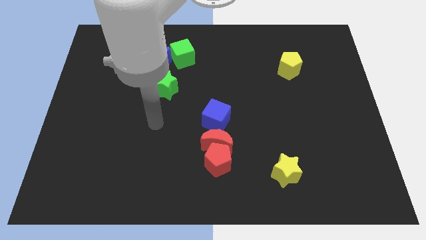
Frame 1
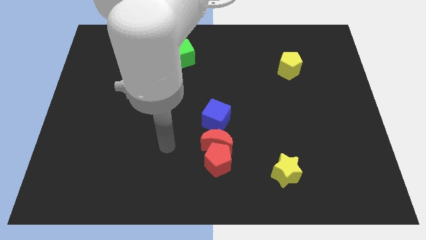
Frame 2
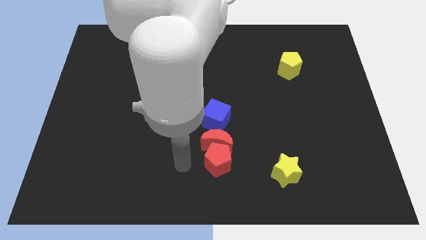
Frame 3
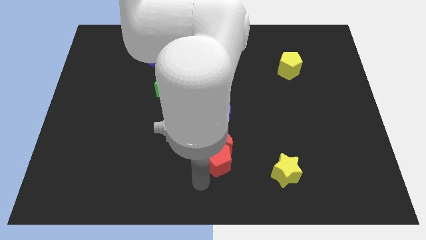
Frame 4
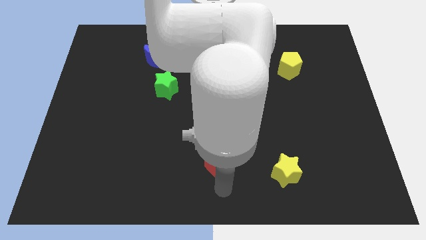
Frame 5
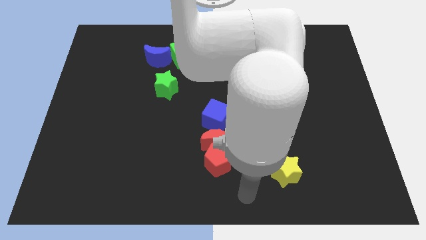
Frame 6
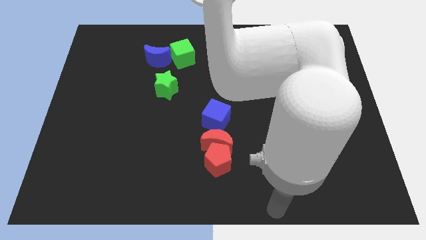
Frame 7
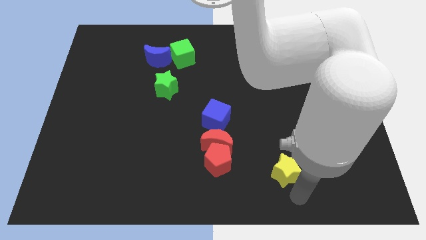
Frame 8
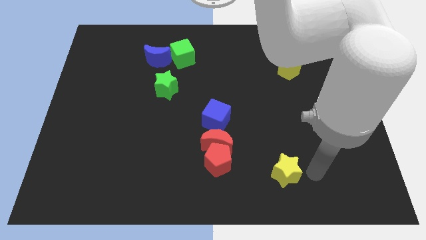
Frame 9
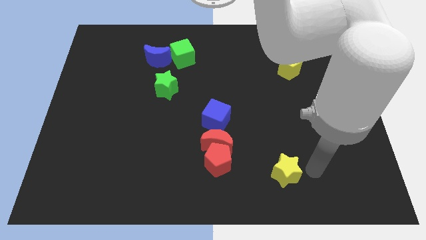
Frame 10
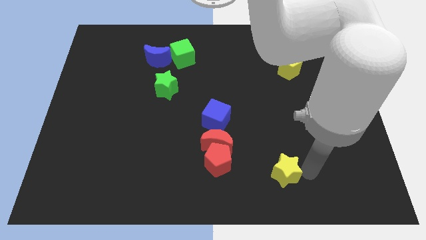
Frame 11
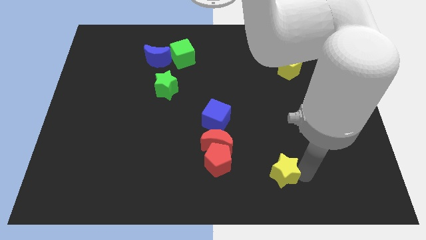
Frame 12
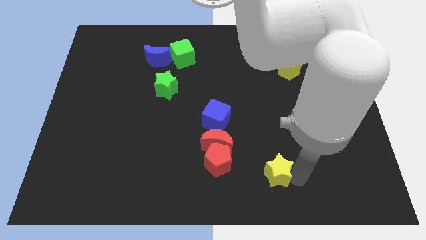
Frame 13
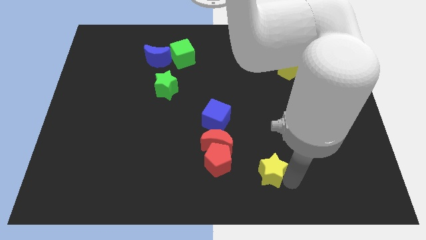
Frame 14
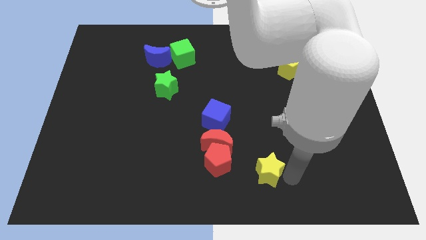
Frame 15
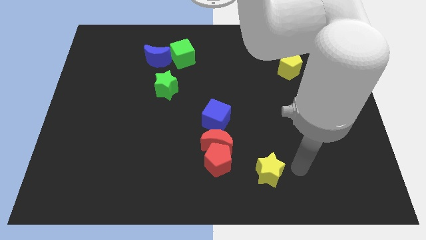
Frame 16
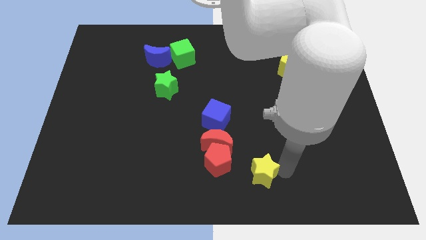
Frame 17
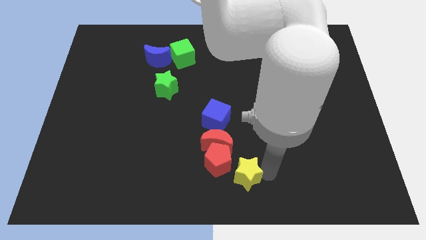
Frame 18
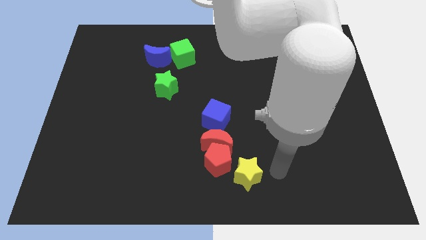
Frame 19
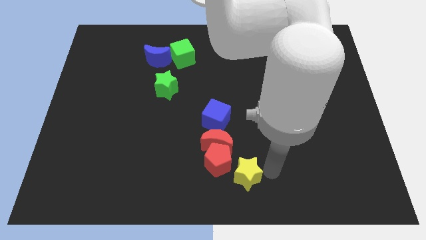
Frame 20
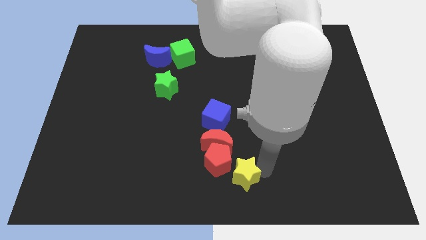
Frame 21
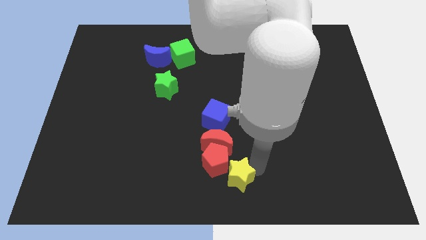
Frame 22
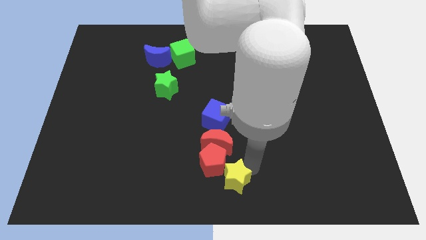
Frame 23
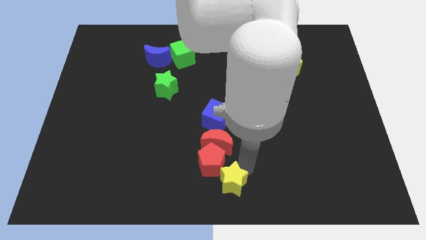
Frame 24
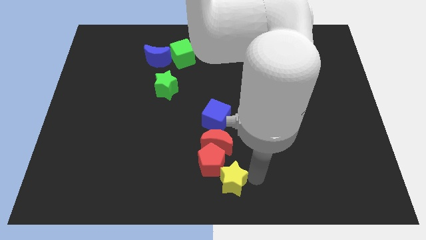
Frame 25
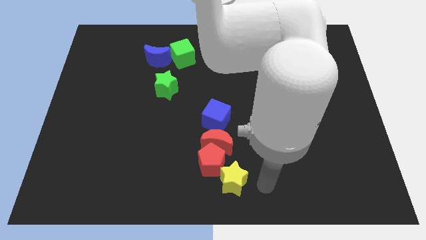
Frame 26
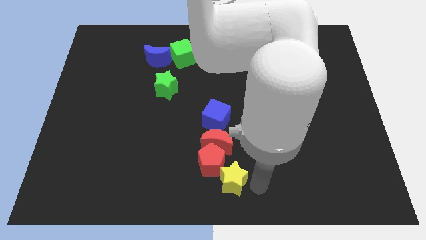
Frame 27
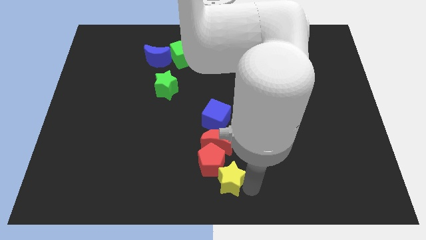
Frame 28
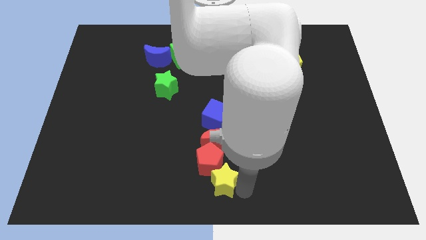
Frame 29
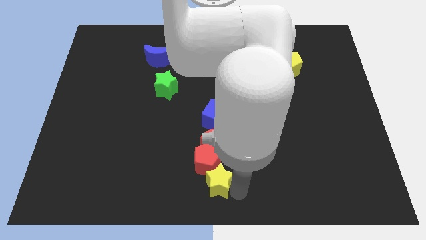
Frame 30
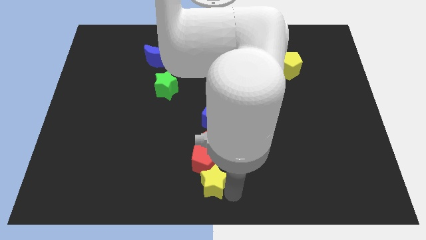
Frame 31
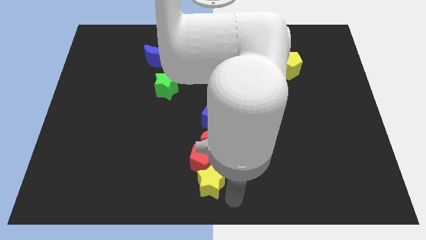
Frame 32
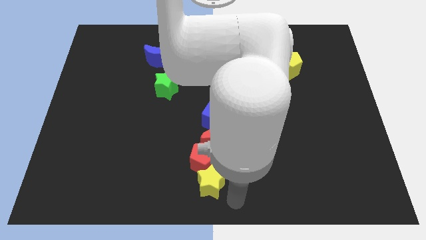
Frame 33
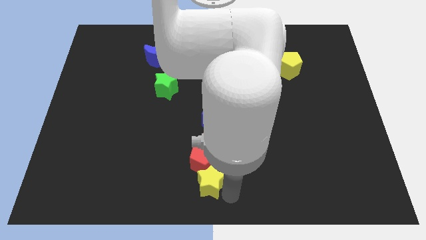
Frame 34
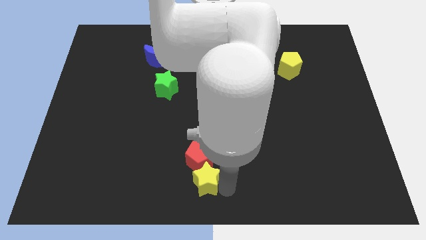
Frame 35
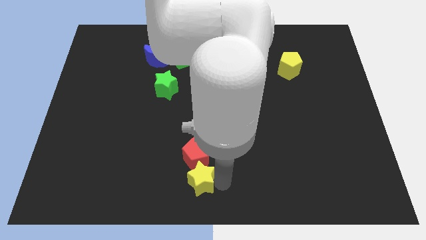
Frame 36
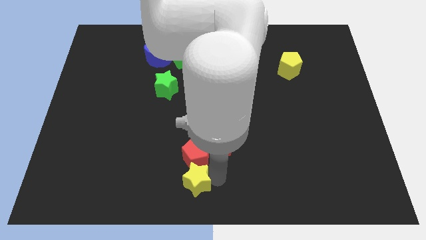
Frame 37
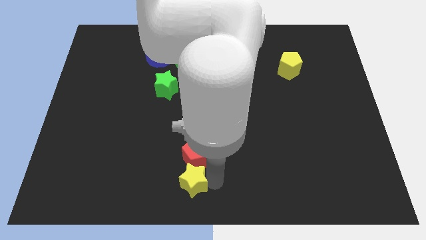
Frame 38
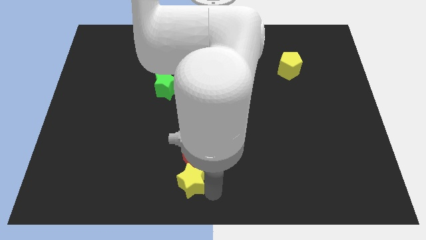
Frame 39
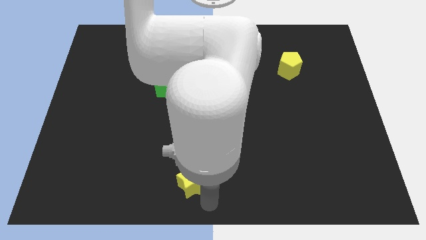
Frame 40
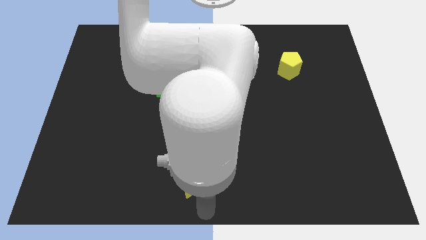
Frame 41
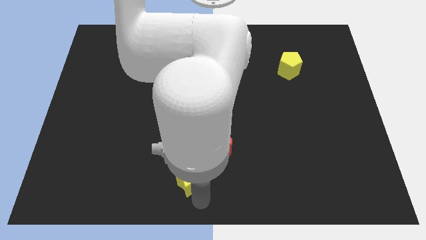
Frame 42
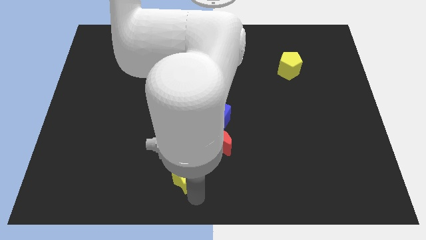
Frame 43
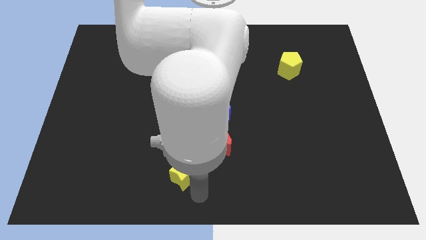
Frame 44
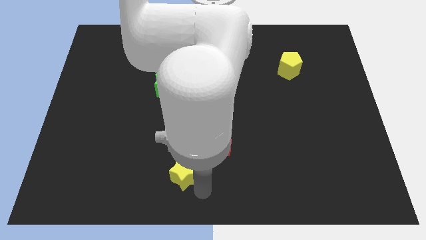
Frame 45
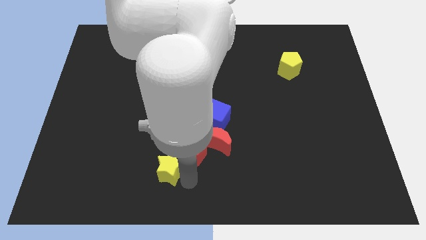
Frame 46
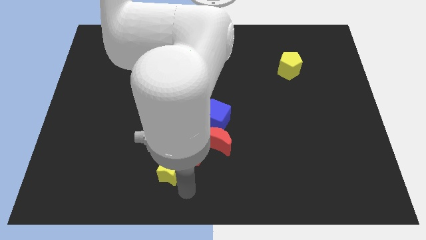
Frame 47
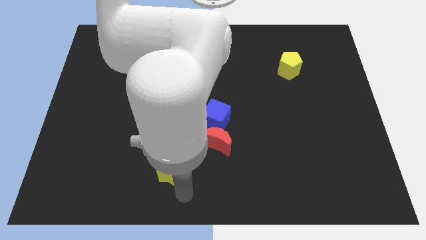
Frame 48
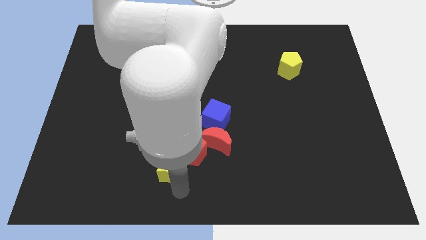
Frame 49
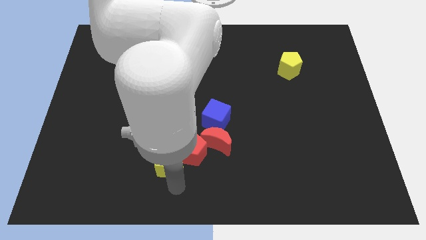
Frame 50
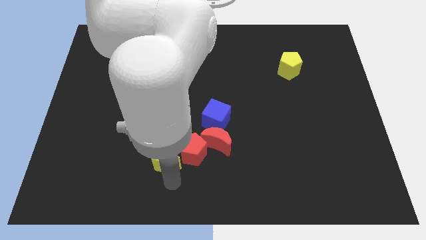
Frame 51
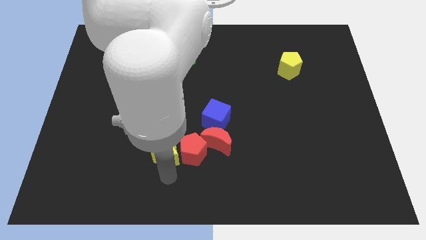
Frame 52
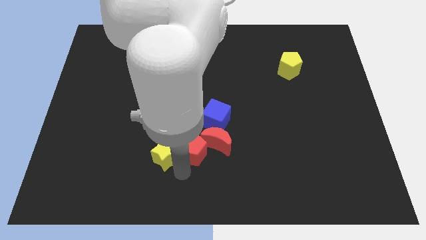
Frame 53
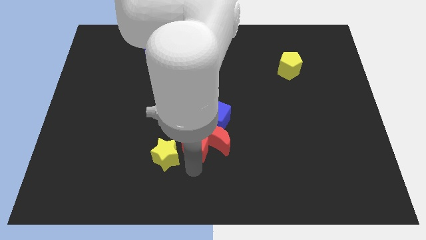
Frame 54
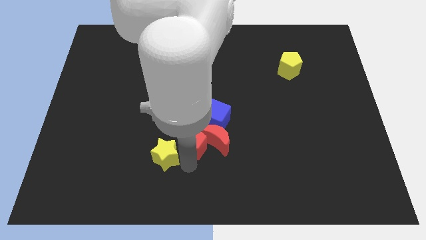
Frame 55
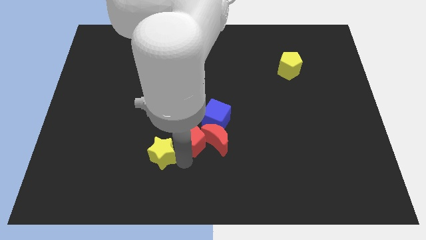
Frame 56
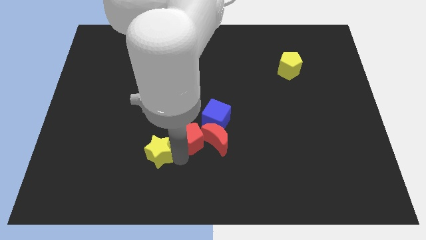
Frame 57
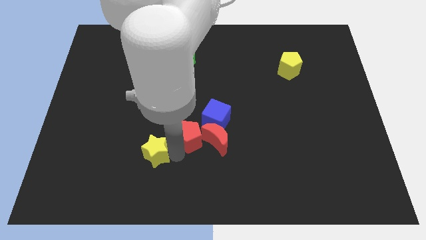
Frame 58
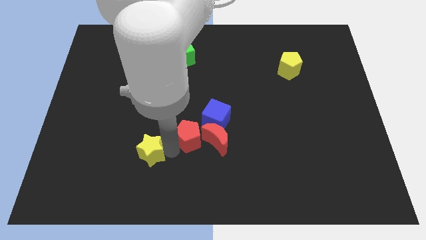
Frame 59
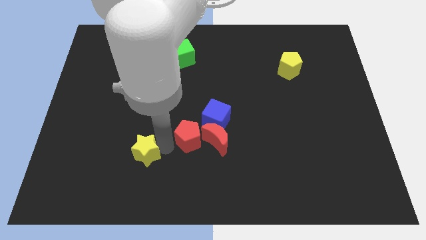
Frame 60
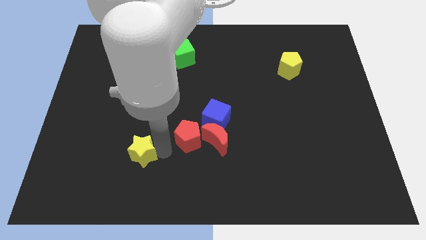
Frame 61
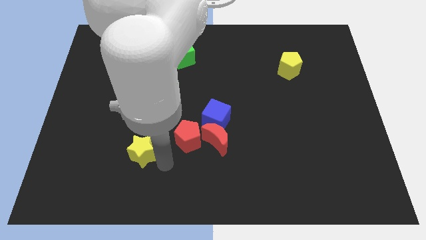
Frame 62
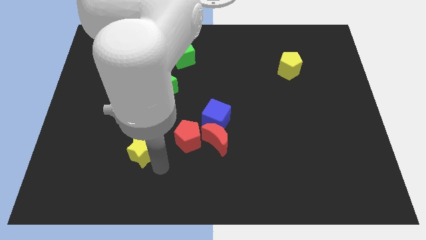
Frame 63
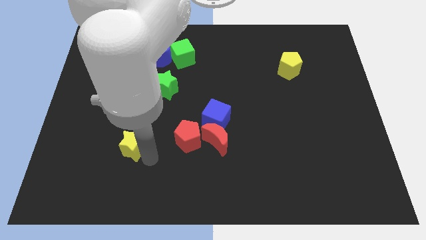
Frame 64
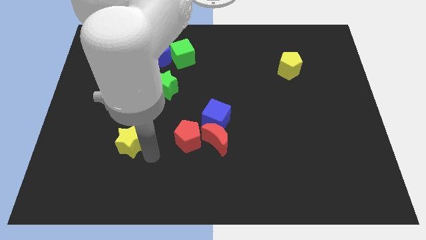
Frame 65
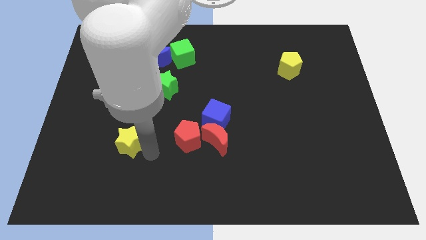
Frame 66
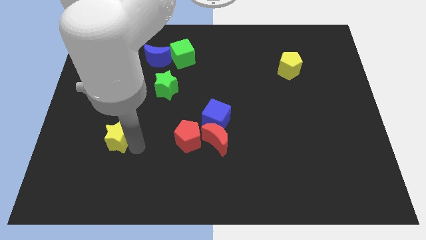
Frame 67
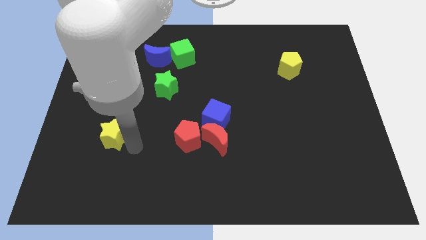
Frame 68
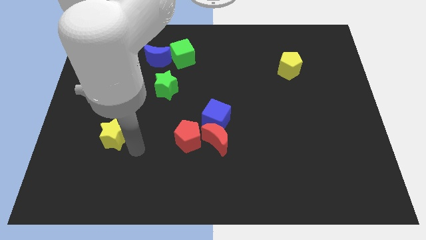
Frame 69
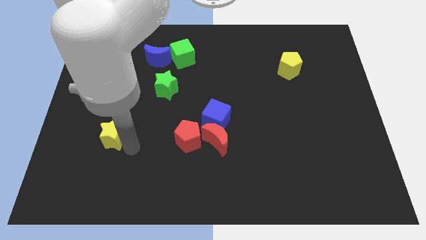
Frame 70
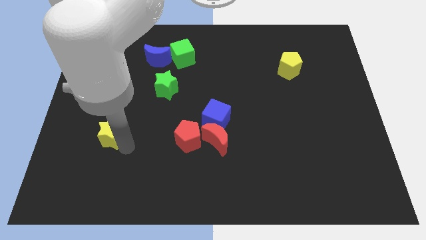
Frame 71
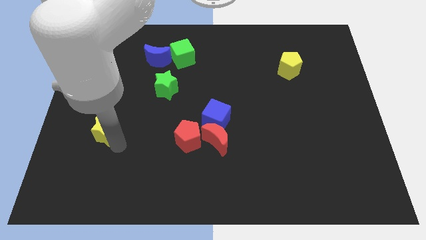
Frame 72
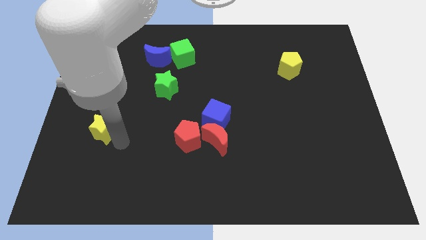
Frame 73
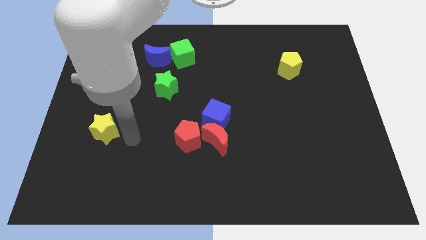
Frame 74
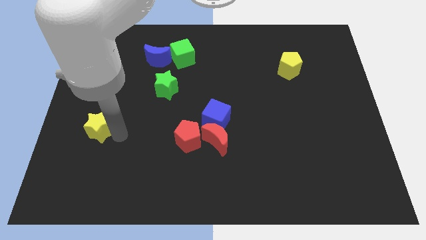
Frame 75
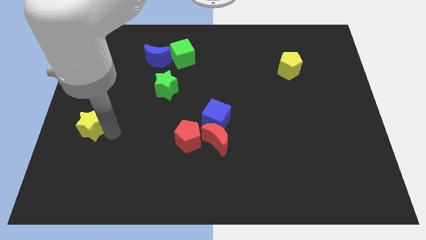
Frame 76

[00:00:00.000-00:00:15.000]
slide the yellow star to the center left
